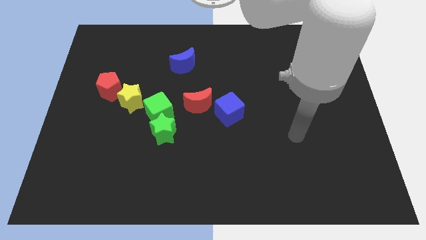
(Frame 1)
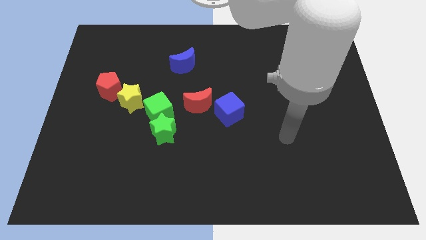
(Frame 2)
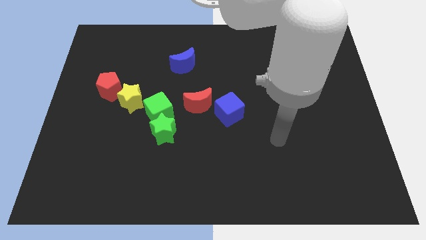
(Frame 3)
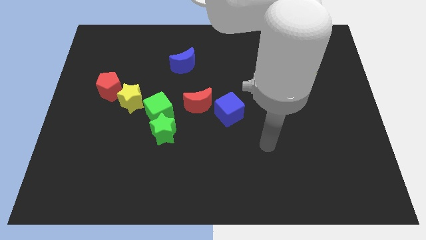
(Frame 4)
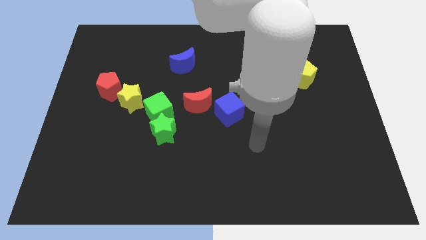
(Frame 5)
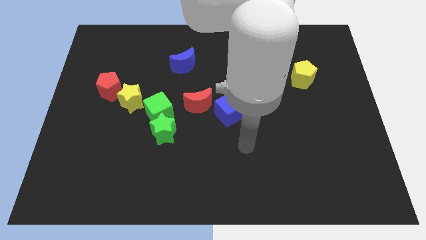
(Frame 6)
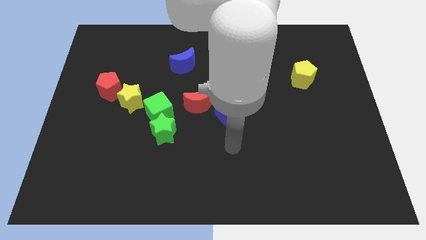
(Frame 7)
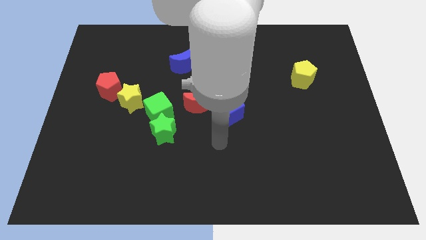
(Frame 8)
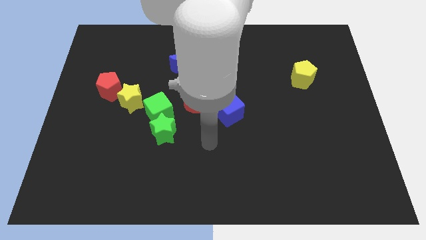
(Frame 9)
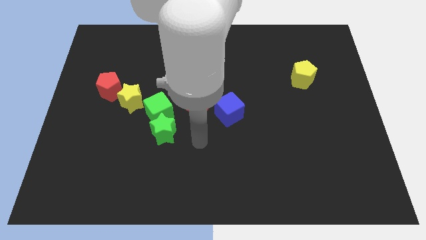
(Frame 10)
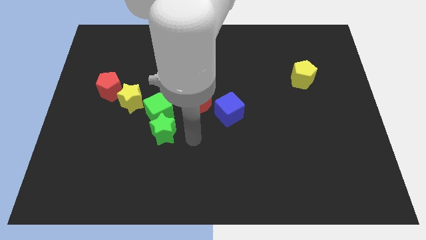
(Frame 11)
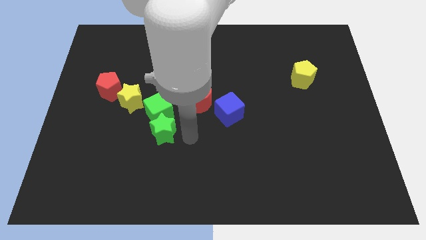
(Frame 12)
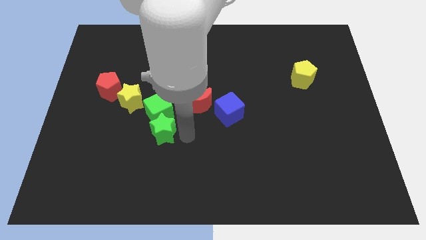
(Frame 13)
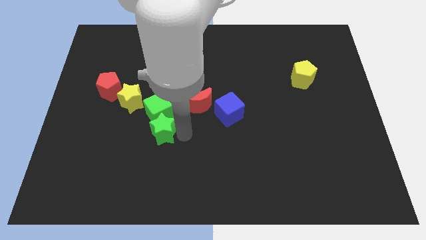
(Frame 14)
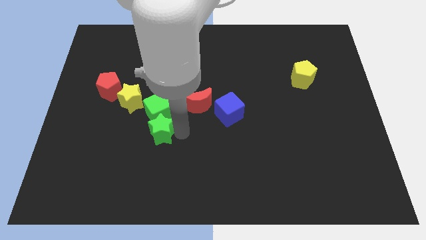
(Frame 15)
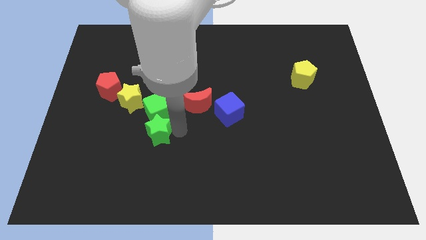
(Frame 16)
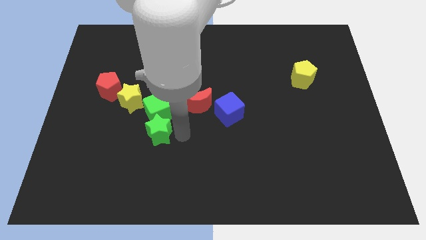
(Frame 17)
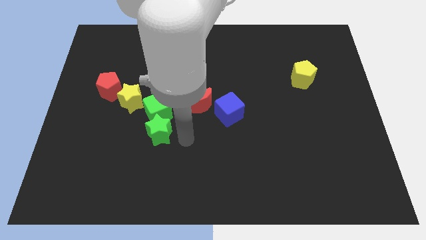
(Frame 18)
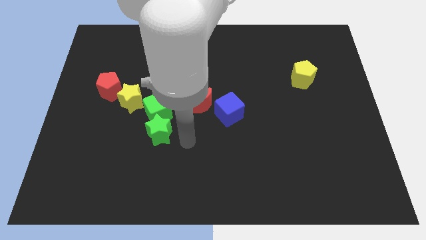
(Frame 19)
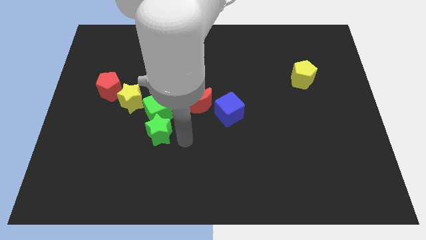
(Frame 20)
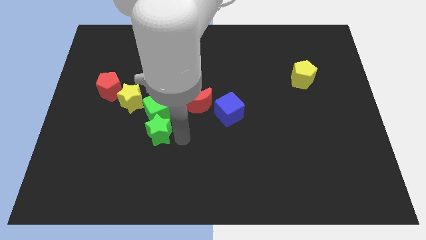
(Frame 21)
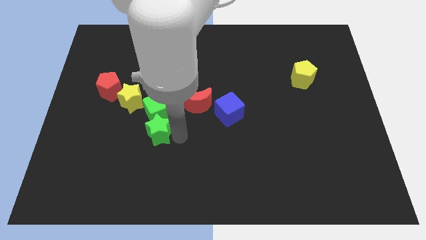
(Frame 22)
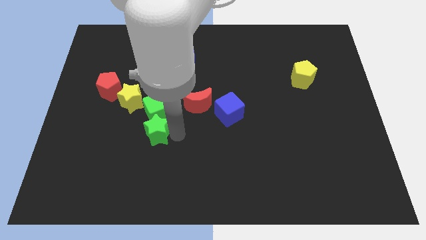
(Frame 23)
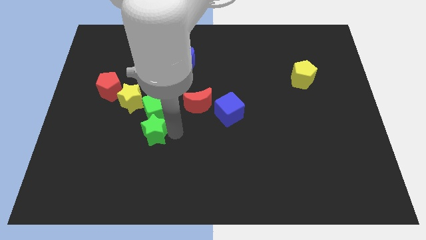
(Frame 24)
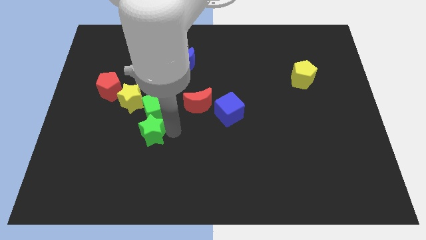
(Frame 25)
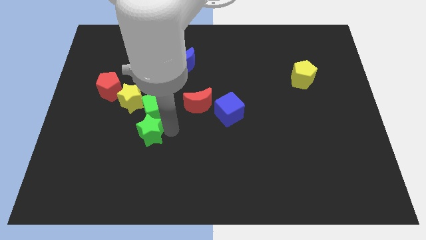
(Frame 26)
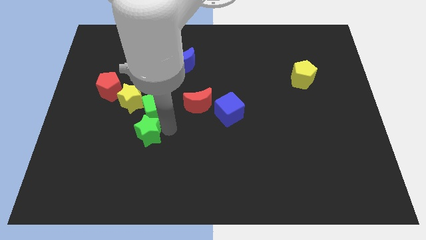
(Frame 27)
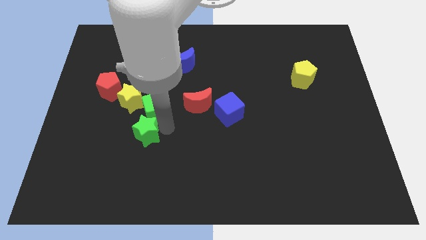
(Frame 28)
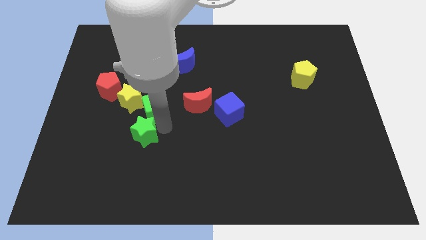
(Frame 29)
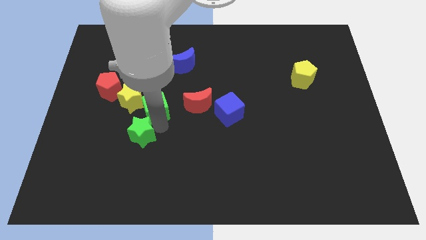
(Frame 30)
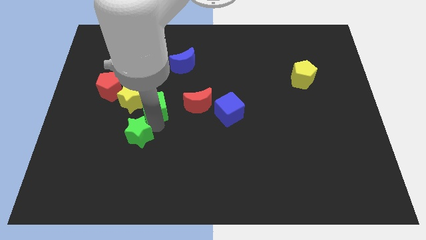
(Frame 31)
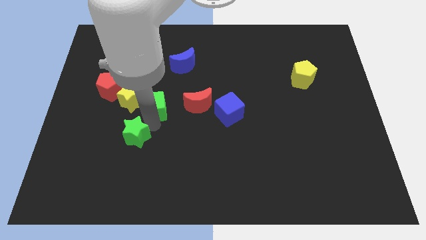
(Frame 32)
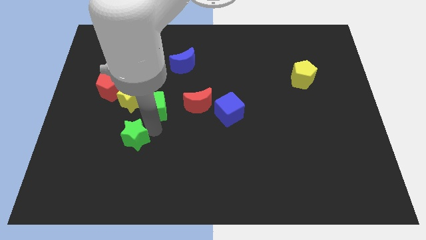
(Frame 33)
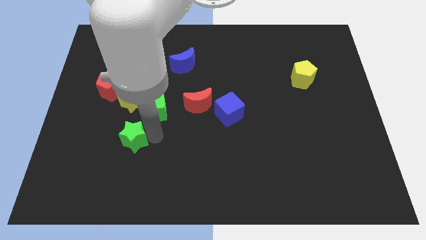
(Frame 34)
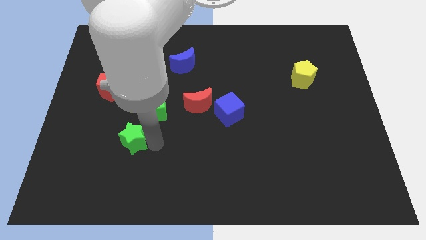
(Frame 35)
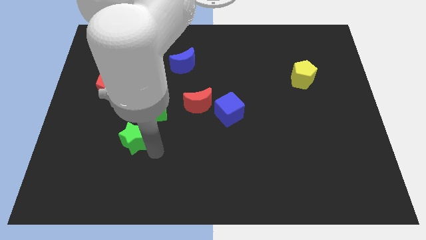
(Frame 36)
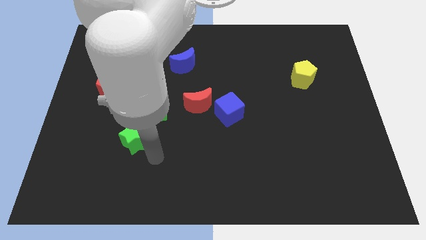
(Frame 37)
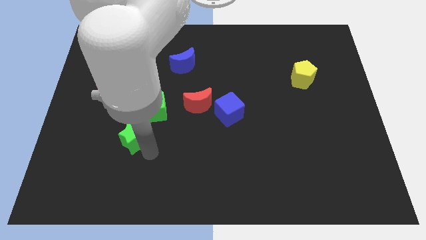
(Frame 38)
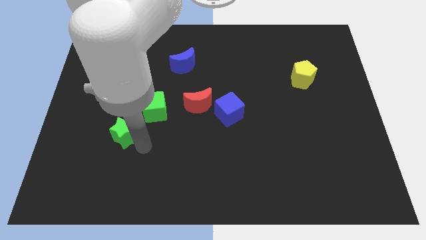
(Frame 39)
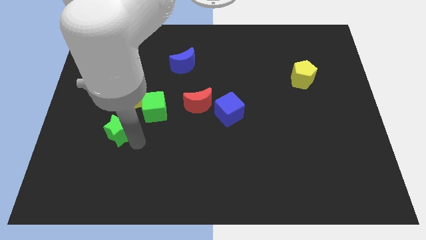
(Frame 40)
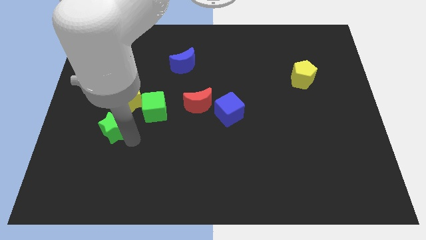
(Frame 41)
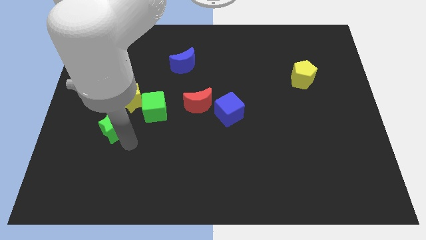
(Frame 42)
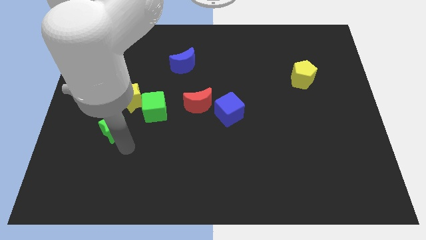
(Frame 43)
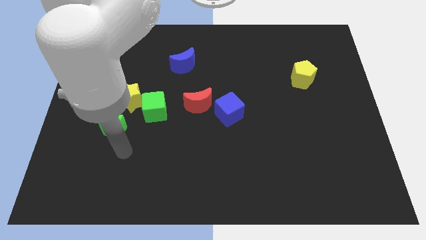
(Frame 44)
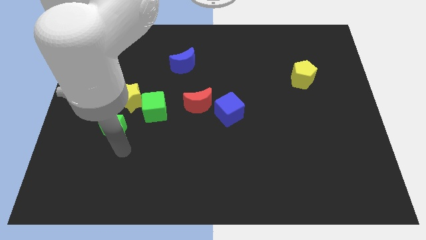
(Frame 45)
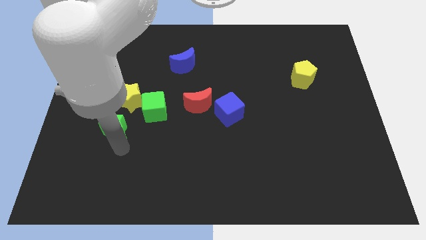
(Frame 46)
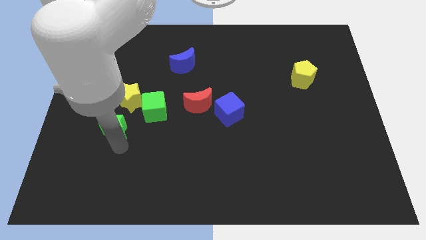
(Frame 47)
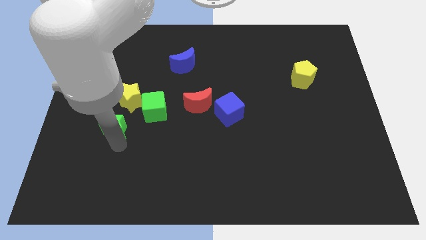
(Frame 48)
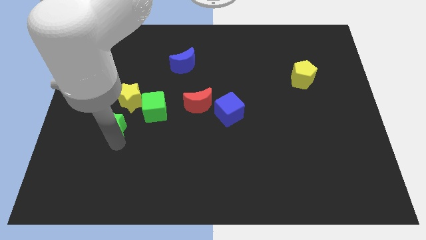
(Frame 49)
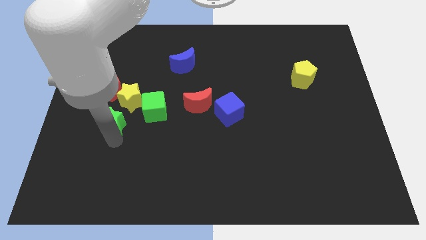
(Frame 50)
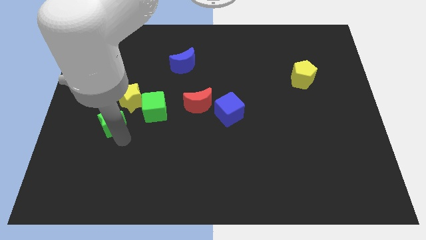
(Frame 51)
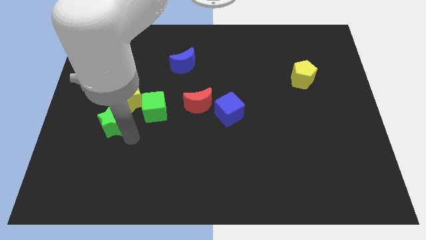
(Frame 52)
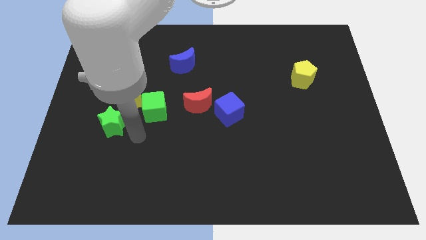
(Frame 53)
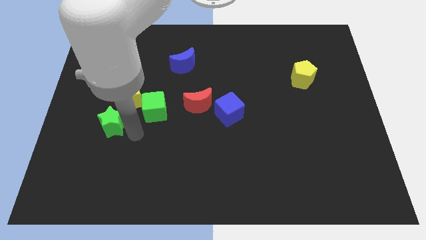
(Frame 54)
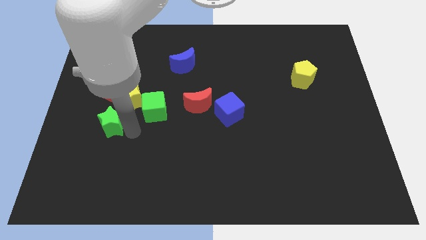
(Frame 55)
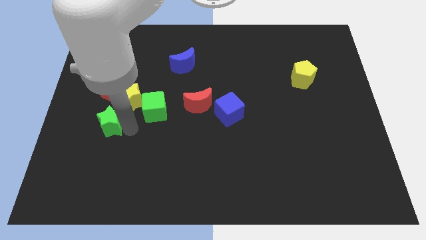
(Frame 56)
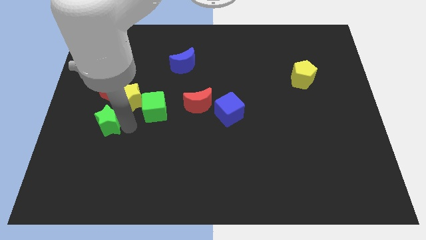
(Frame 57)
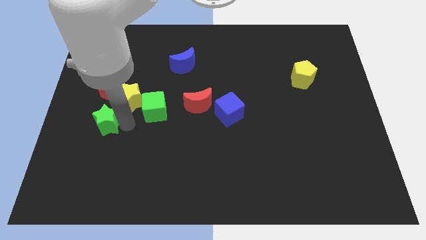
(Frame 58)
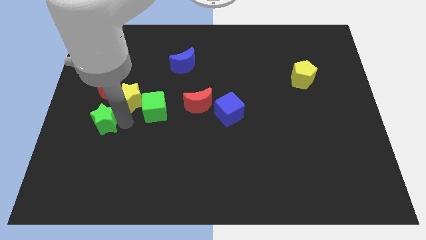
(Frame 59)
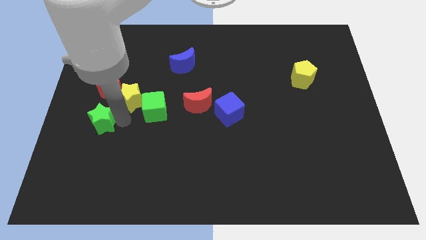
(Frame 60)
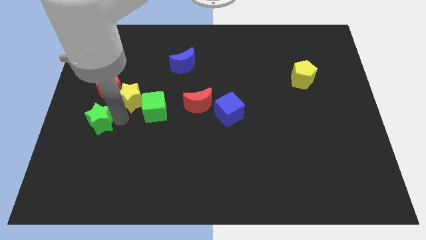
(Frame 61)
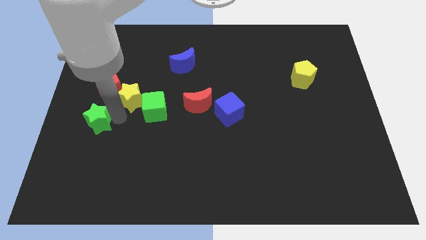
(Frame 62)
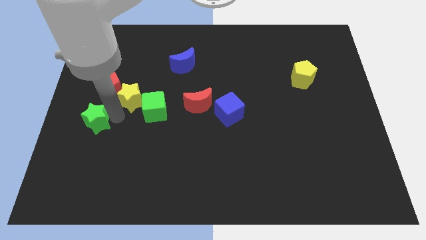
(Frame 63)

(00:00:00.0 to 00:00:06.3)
move the green star to the left side

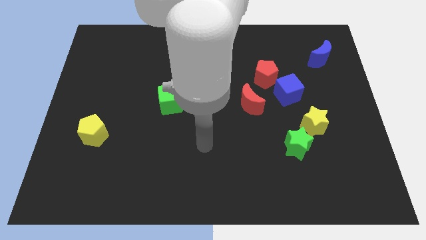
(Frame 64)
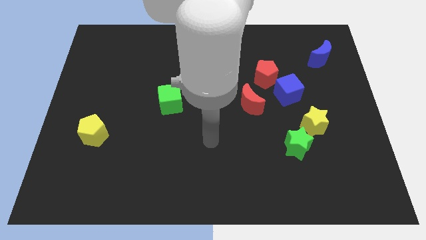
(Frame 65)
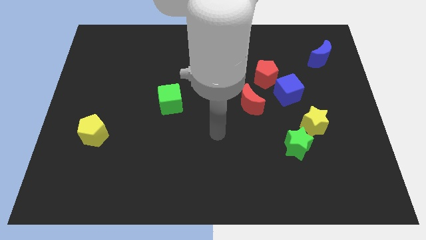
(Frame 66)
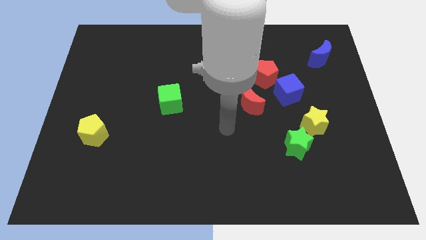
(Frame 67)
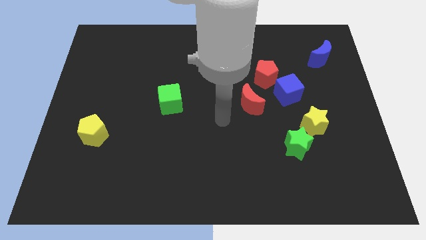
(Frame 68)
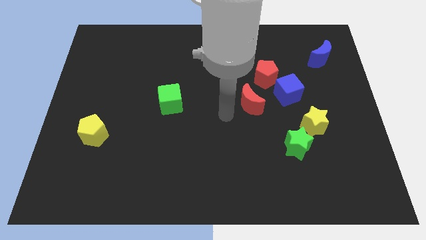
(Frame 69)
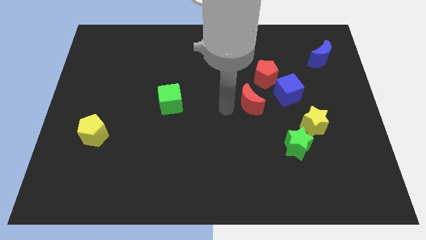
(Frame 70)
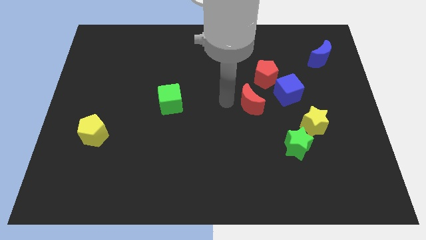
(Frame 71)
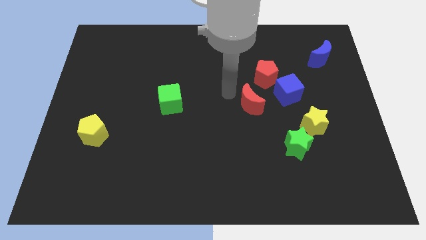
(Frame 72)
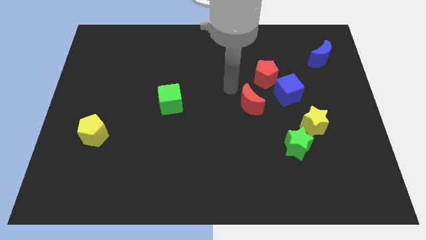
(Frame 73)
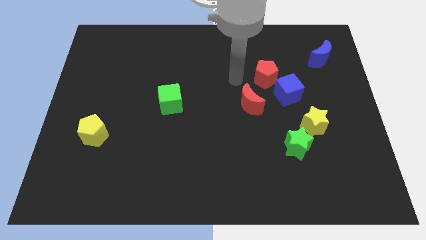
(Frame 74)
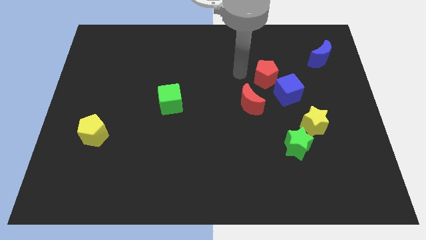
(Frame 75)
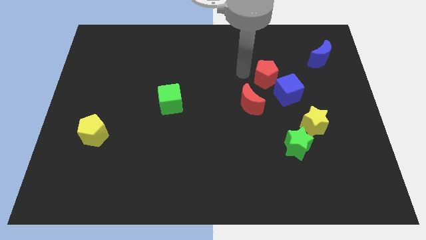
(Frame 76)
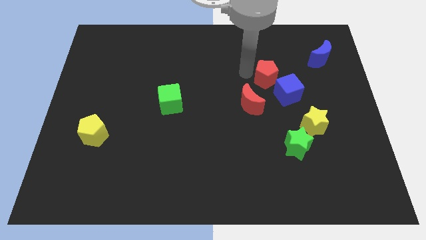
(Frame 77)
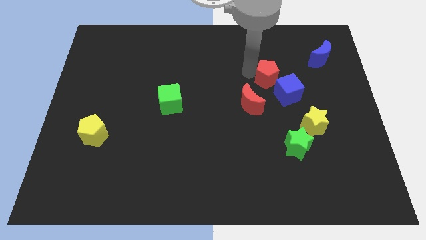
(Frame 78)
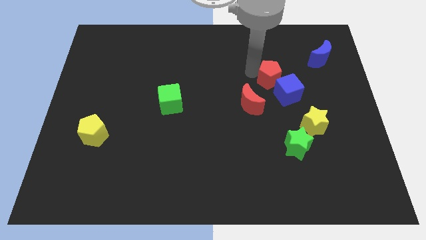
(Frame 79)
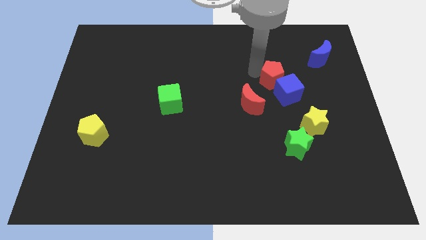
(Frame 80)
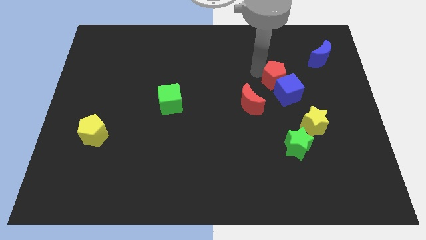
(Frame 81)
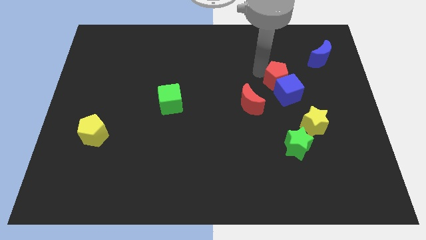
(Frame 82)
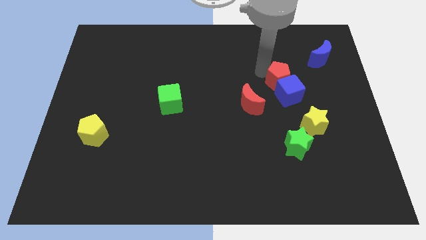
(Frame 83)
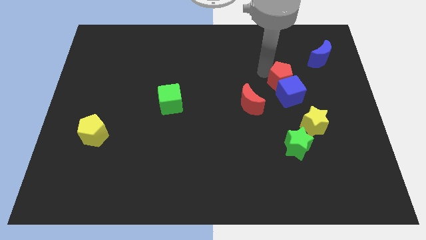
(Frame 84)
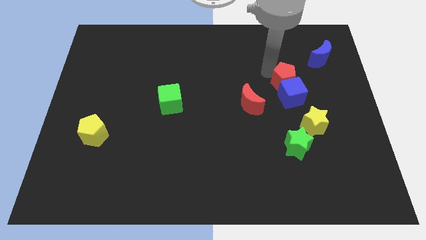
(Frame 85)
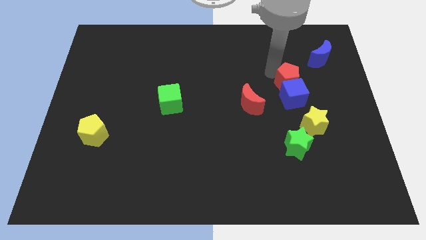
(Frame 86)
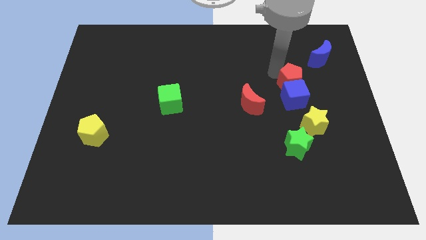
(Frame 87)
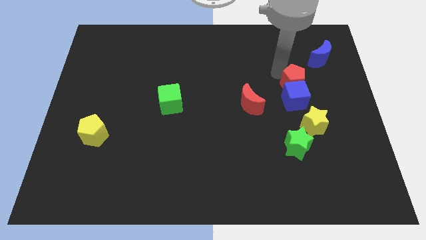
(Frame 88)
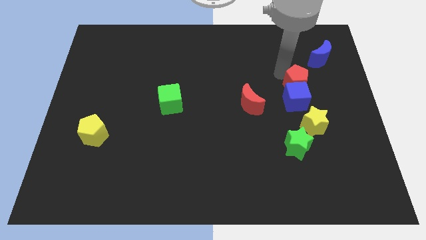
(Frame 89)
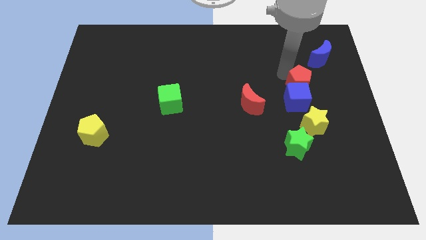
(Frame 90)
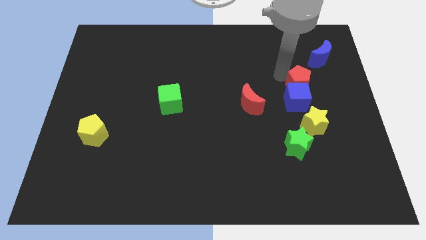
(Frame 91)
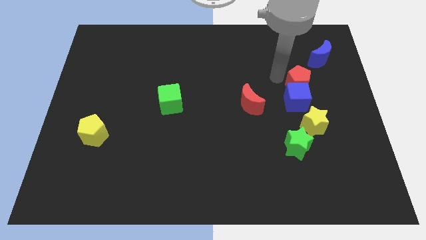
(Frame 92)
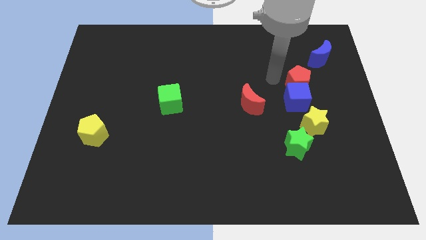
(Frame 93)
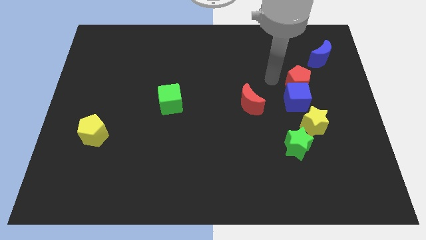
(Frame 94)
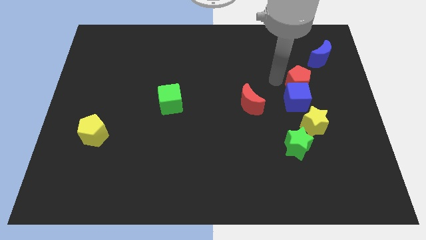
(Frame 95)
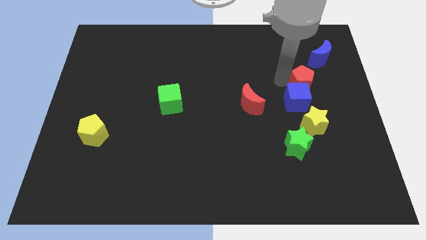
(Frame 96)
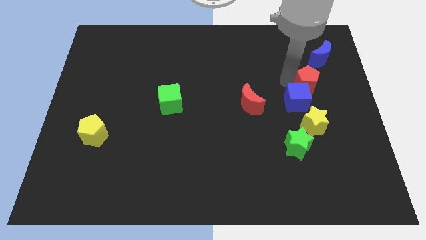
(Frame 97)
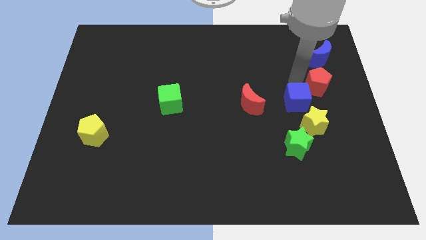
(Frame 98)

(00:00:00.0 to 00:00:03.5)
push the red pentagon to the right side of the board
